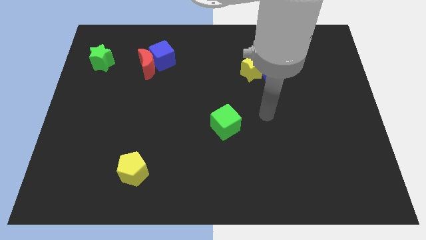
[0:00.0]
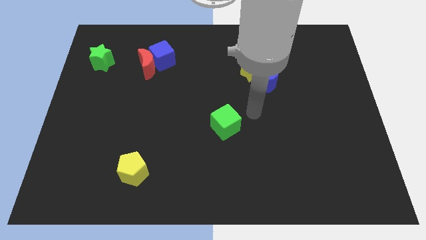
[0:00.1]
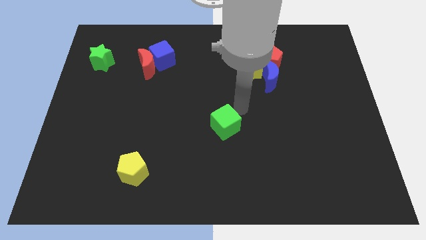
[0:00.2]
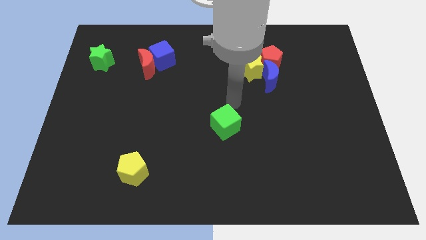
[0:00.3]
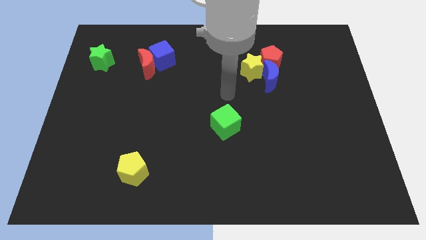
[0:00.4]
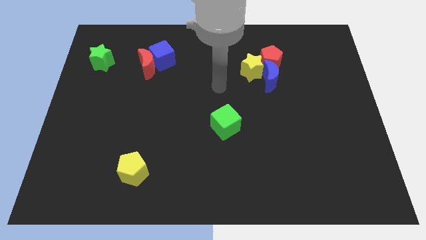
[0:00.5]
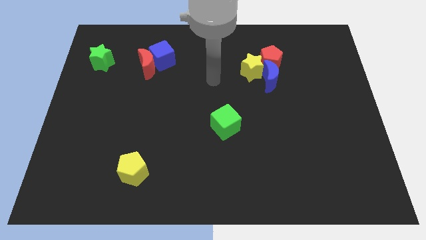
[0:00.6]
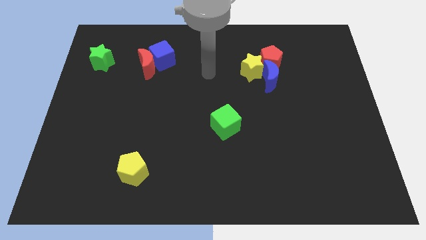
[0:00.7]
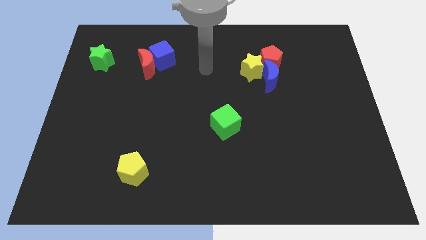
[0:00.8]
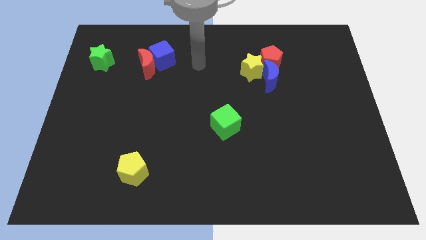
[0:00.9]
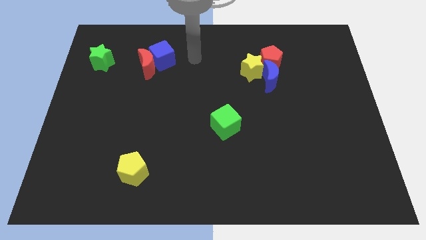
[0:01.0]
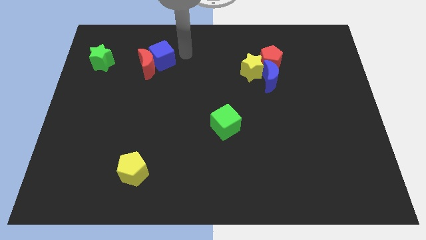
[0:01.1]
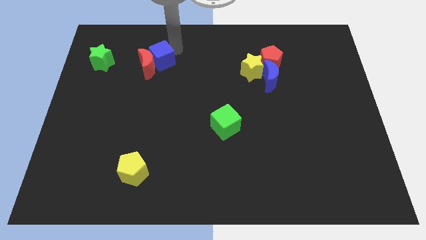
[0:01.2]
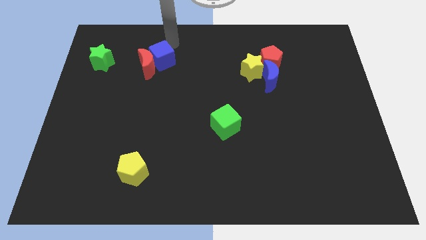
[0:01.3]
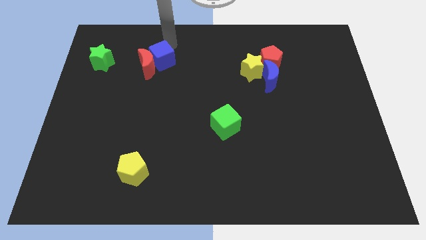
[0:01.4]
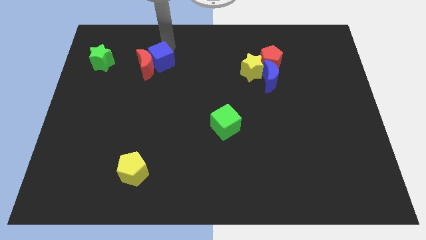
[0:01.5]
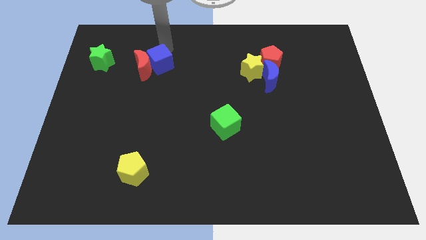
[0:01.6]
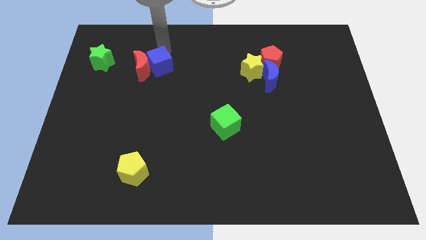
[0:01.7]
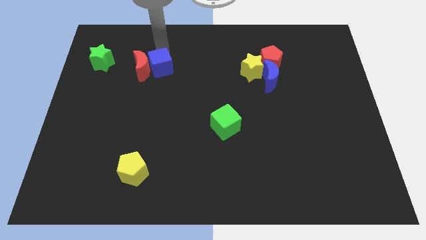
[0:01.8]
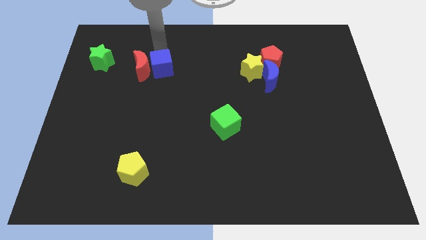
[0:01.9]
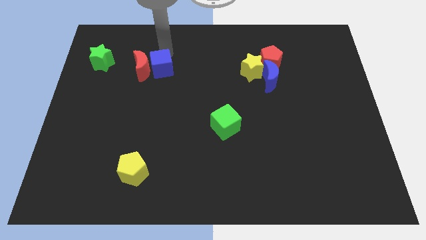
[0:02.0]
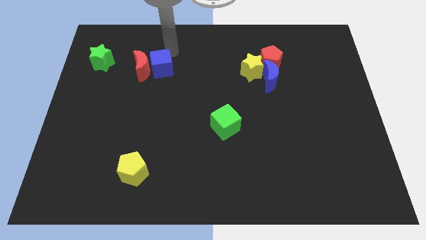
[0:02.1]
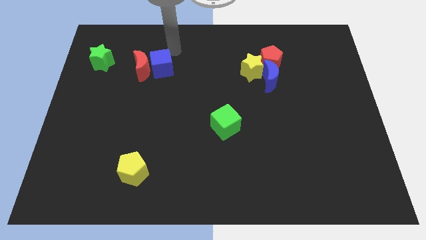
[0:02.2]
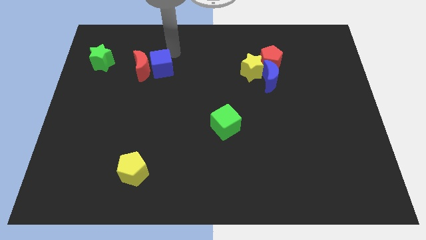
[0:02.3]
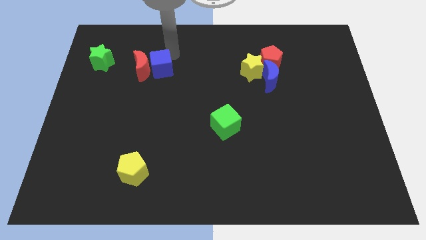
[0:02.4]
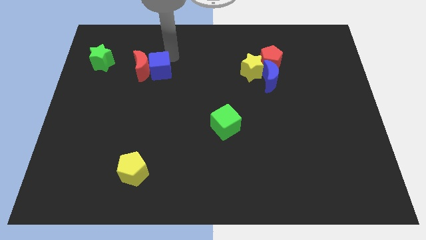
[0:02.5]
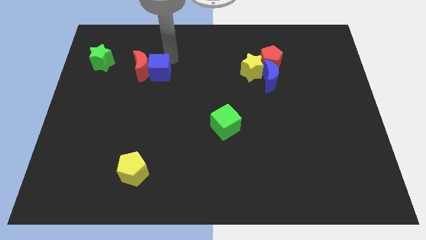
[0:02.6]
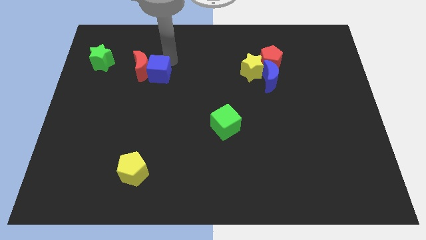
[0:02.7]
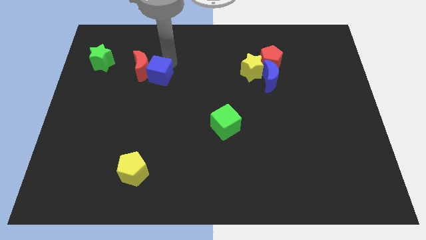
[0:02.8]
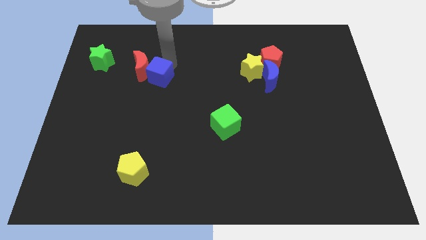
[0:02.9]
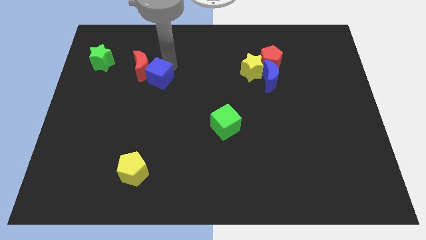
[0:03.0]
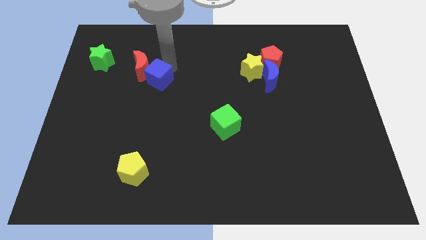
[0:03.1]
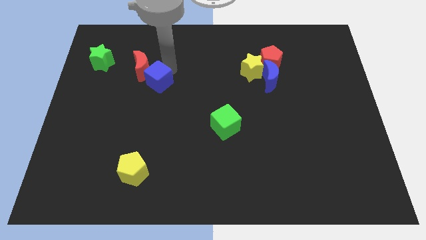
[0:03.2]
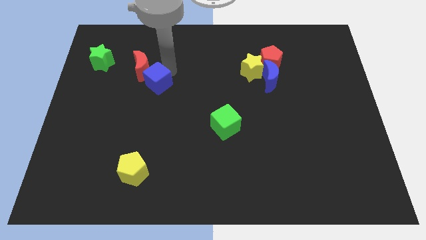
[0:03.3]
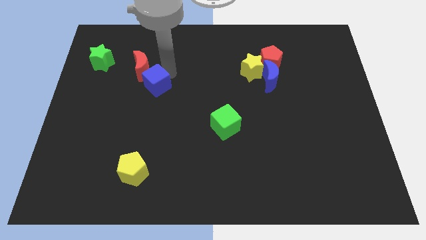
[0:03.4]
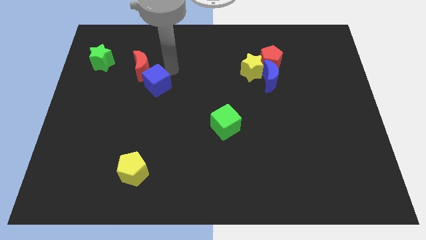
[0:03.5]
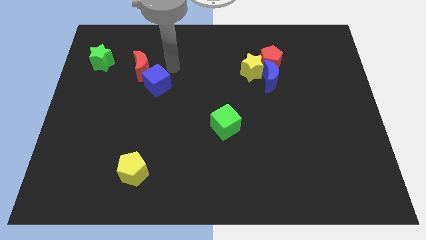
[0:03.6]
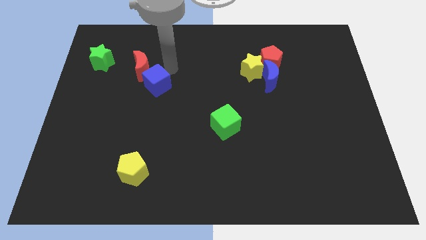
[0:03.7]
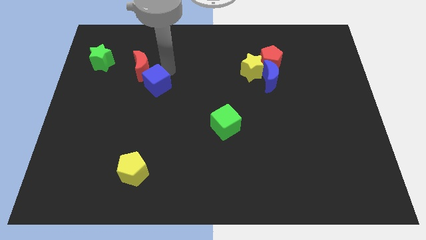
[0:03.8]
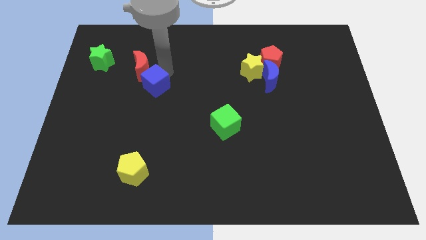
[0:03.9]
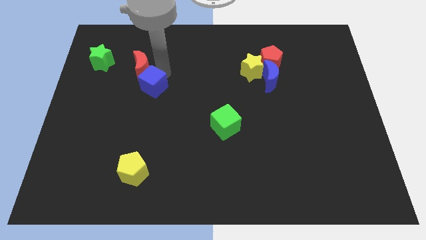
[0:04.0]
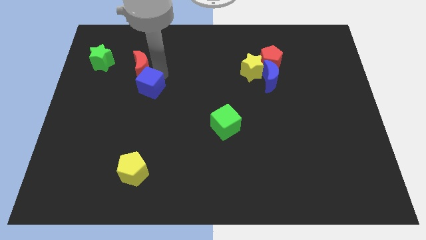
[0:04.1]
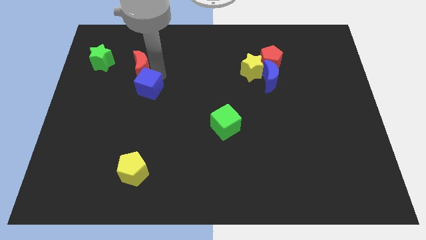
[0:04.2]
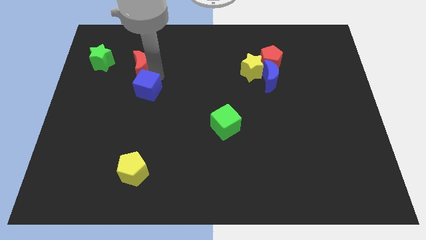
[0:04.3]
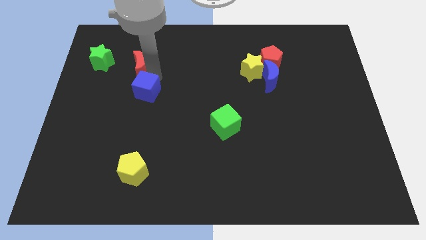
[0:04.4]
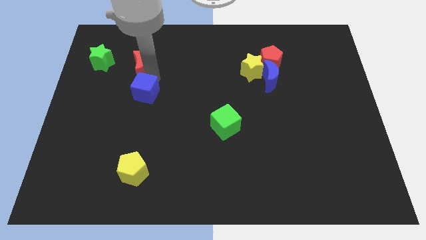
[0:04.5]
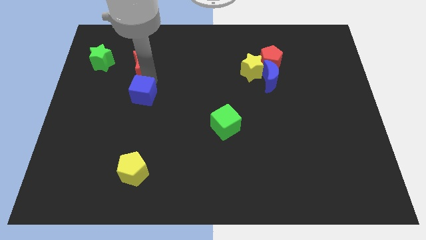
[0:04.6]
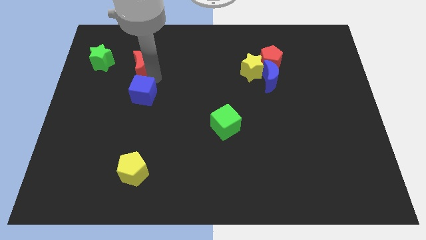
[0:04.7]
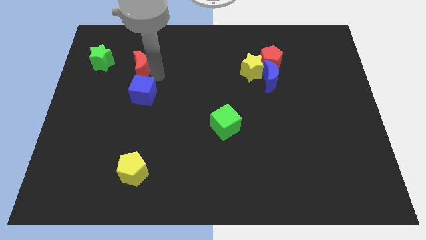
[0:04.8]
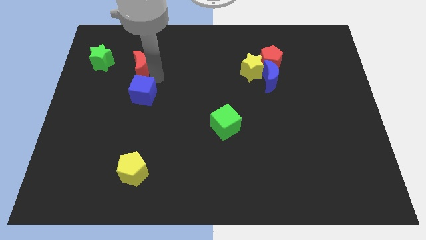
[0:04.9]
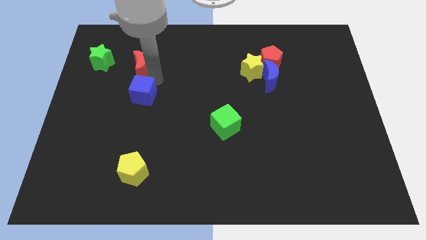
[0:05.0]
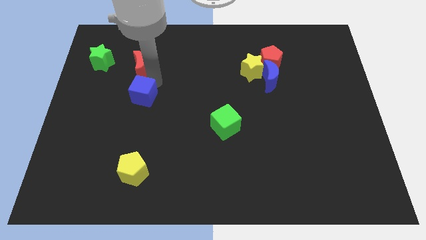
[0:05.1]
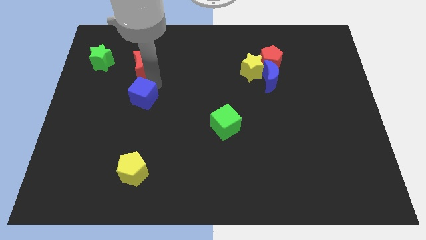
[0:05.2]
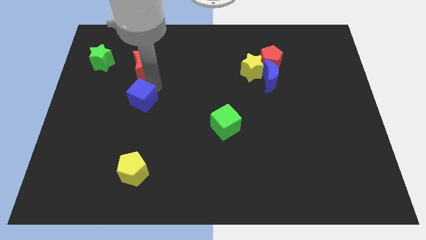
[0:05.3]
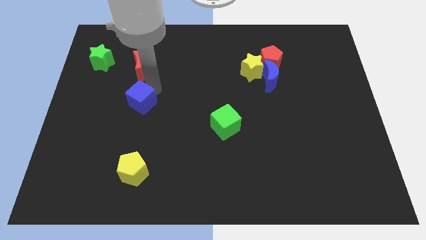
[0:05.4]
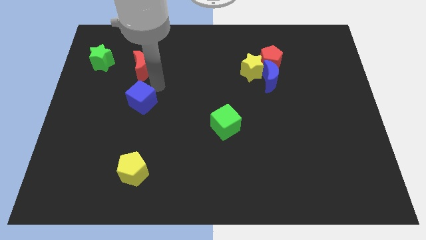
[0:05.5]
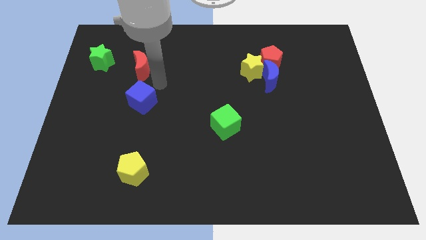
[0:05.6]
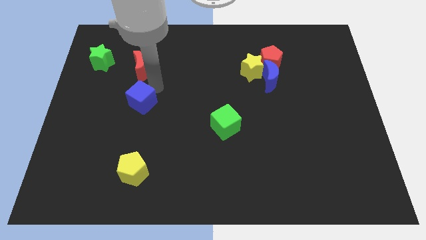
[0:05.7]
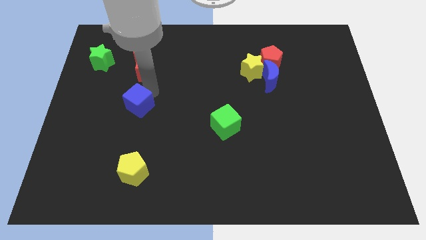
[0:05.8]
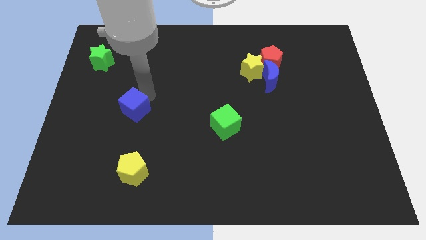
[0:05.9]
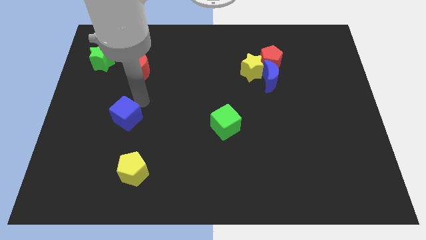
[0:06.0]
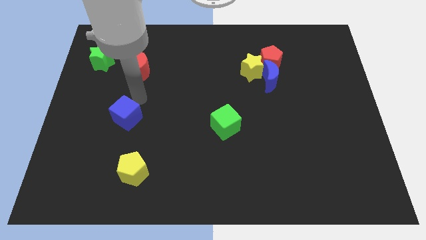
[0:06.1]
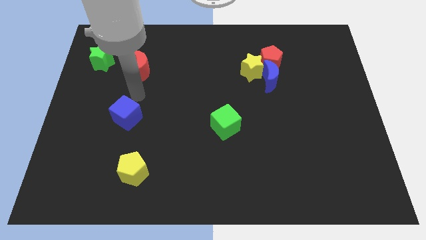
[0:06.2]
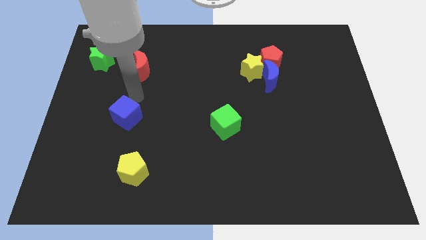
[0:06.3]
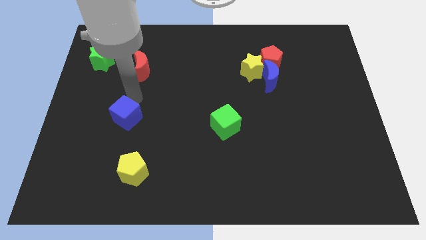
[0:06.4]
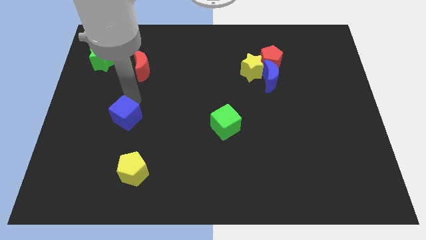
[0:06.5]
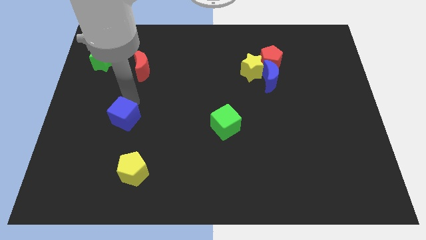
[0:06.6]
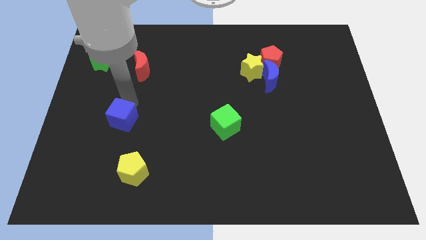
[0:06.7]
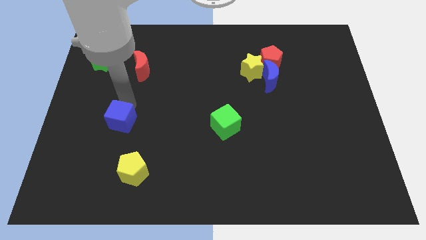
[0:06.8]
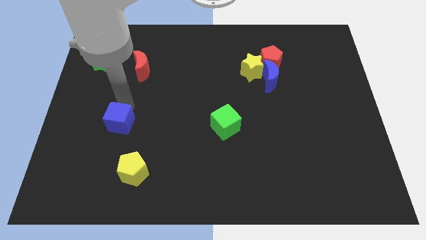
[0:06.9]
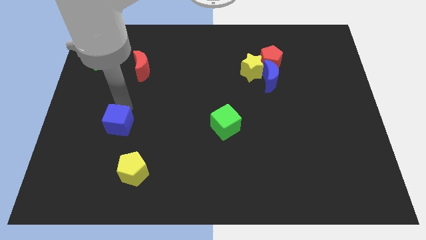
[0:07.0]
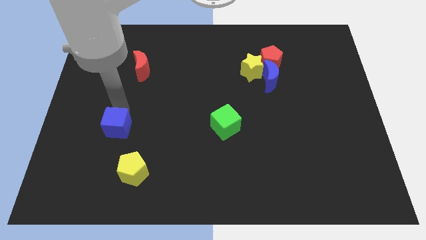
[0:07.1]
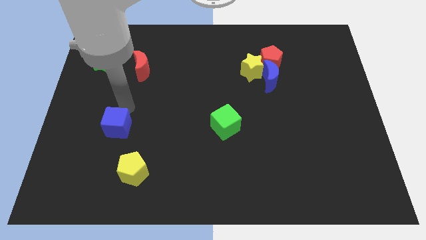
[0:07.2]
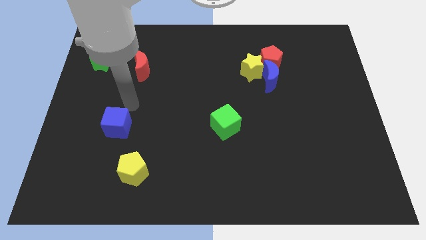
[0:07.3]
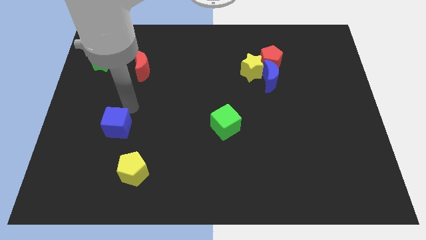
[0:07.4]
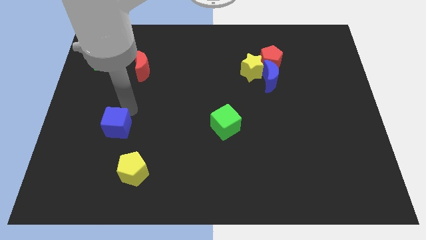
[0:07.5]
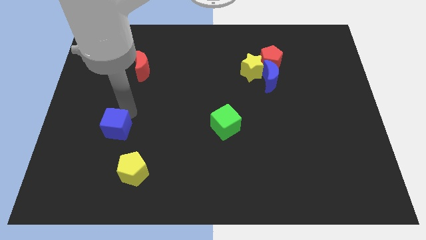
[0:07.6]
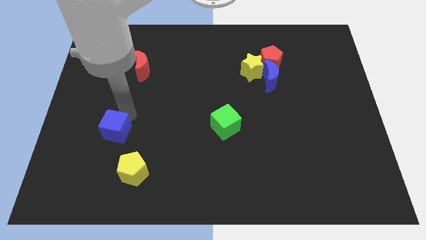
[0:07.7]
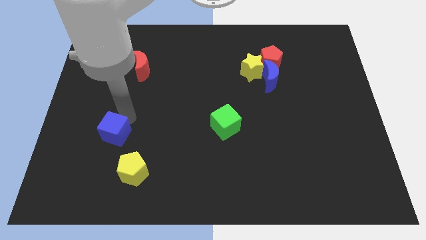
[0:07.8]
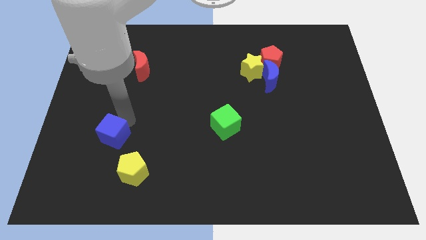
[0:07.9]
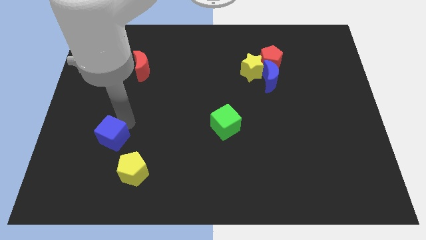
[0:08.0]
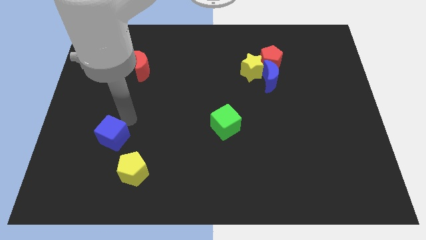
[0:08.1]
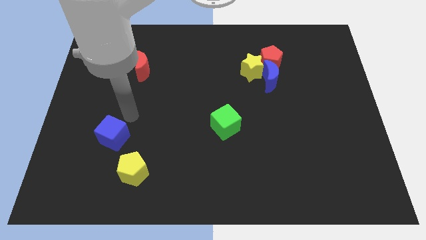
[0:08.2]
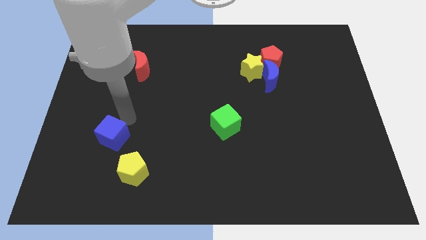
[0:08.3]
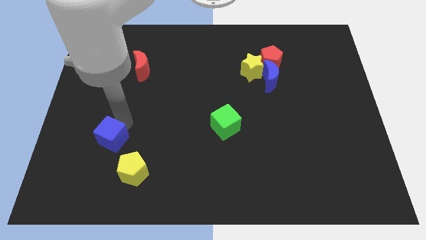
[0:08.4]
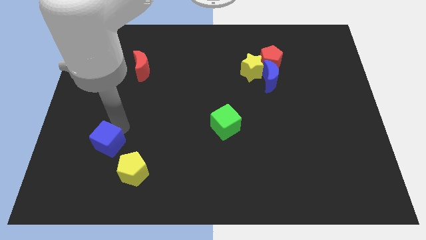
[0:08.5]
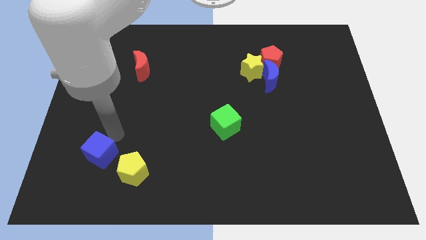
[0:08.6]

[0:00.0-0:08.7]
slide the blue cube to the left of the yellow pentagon
